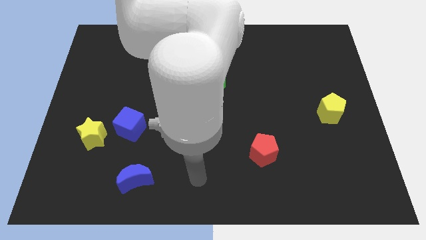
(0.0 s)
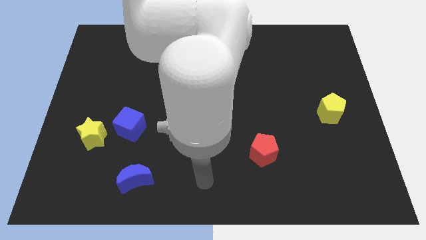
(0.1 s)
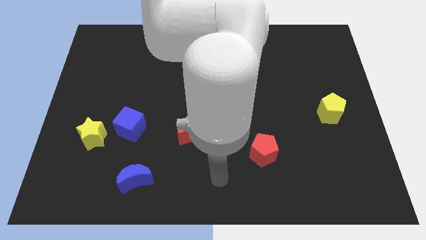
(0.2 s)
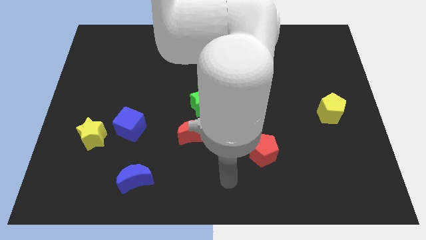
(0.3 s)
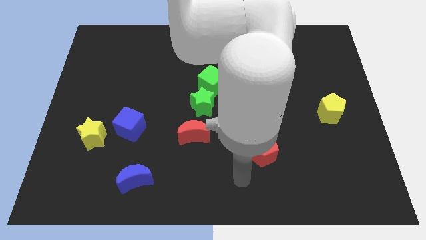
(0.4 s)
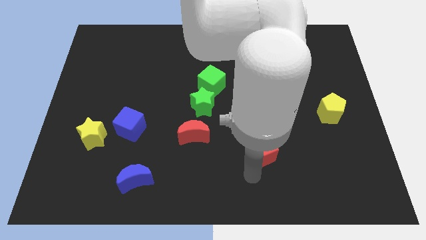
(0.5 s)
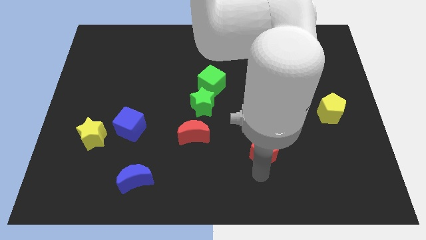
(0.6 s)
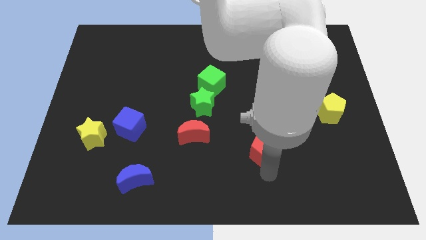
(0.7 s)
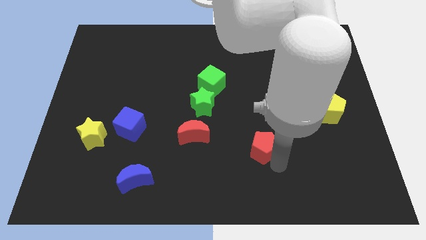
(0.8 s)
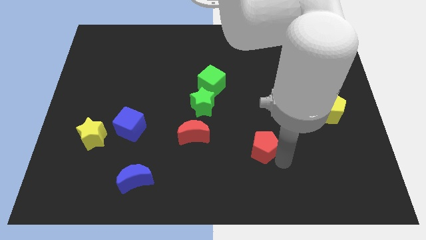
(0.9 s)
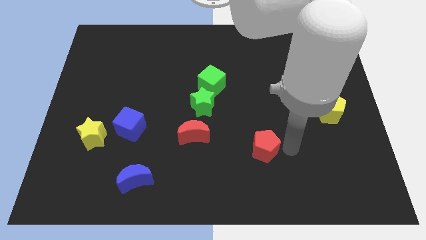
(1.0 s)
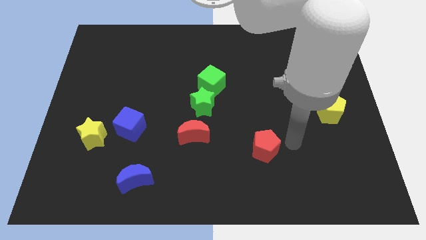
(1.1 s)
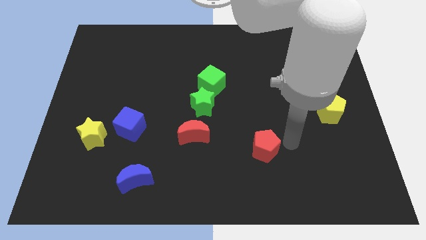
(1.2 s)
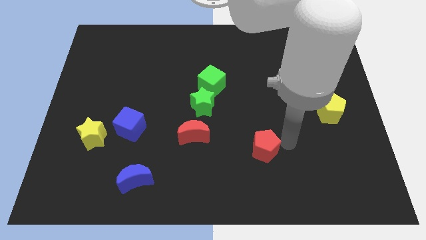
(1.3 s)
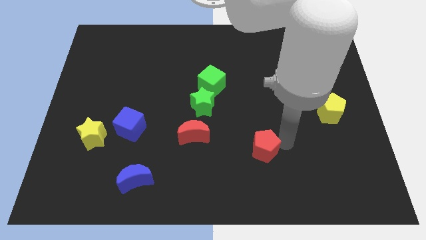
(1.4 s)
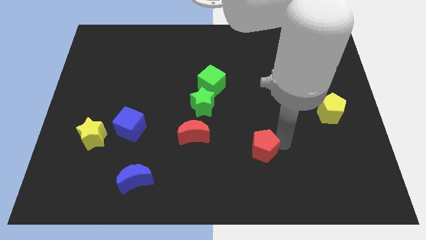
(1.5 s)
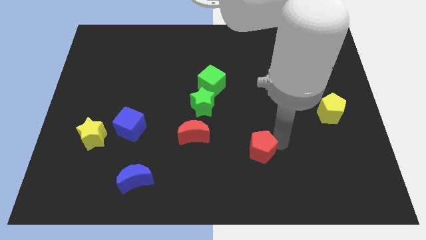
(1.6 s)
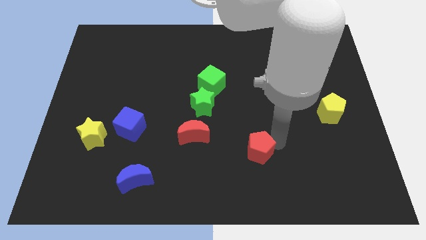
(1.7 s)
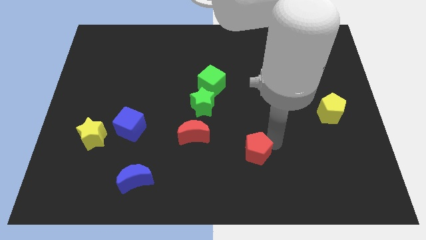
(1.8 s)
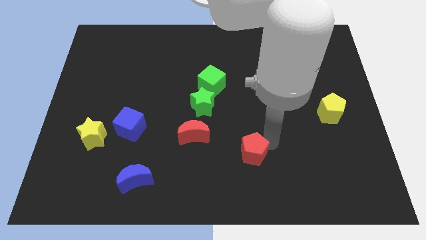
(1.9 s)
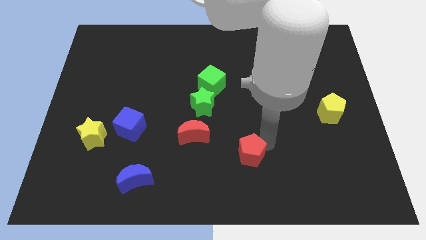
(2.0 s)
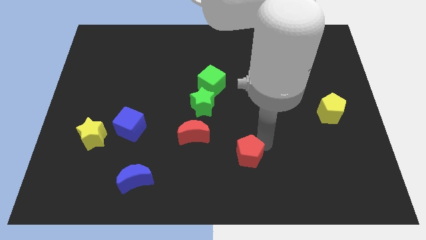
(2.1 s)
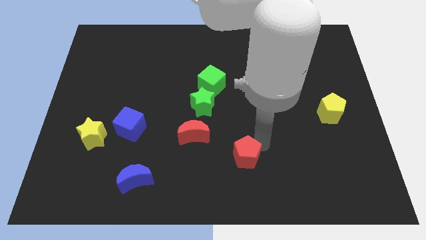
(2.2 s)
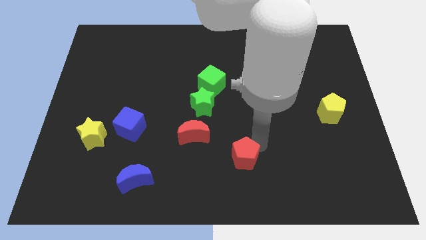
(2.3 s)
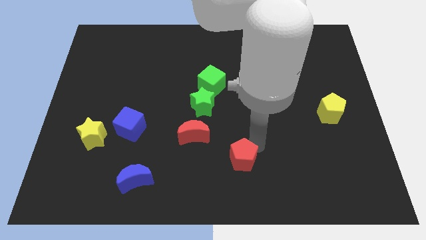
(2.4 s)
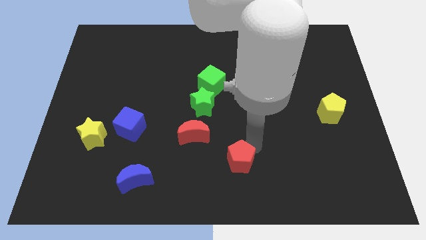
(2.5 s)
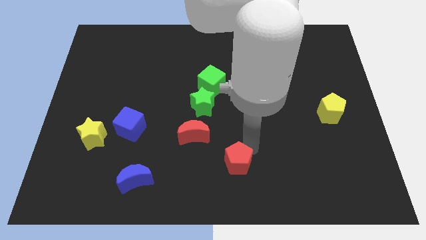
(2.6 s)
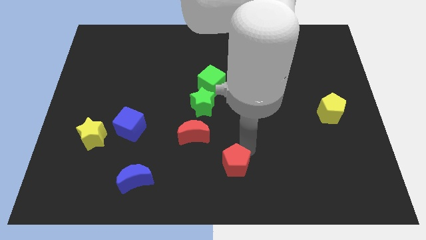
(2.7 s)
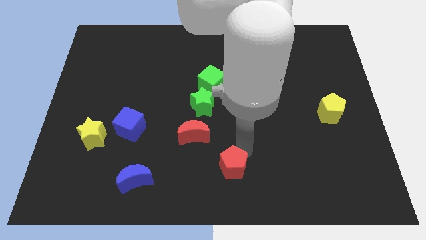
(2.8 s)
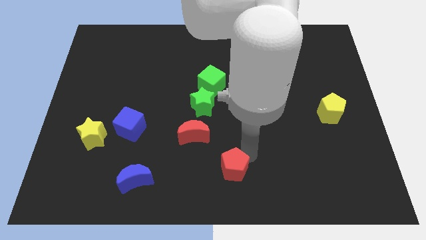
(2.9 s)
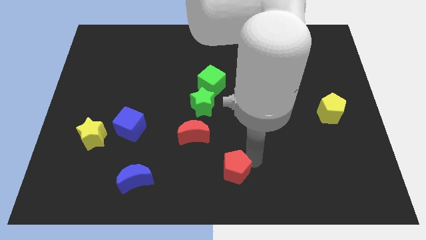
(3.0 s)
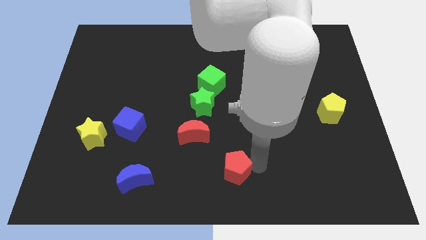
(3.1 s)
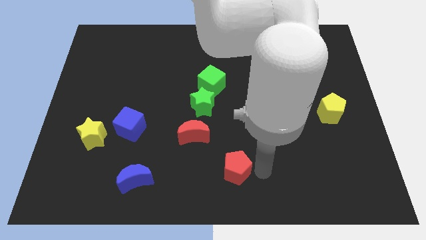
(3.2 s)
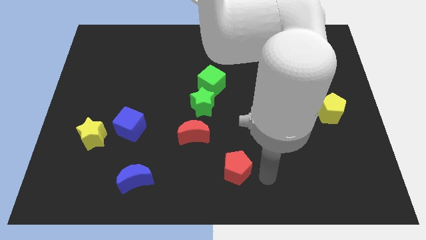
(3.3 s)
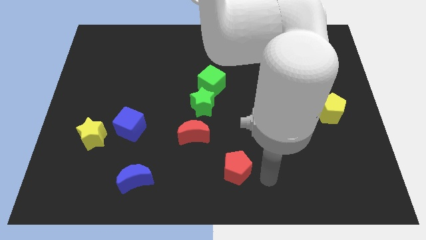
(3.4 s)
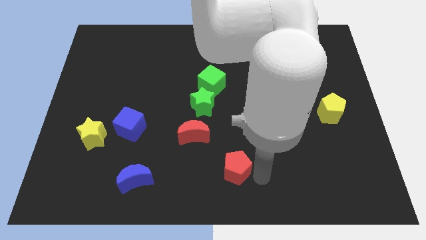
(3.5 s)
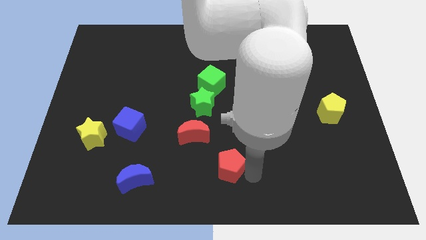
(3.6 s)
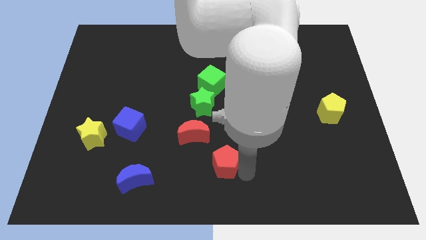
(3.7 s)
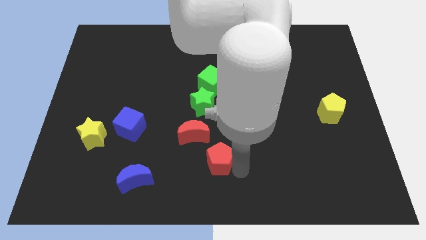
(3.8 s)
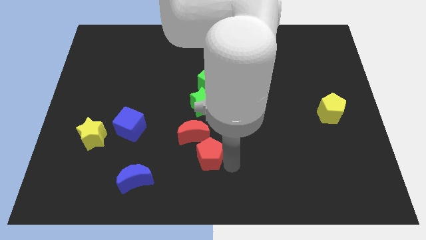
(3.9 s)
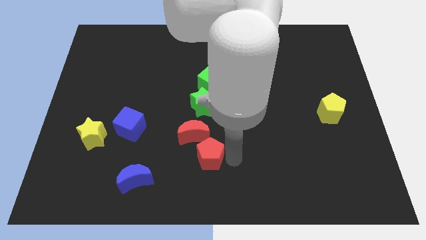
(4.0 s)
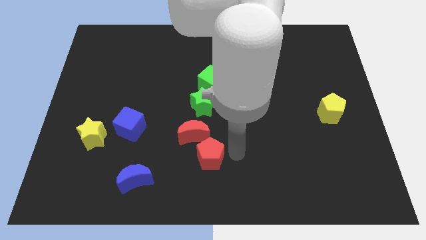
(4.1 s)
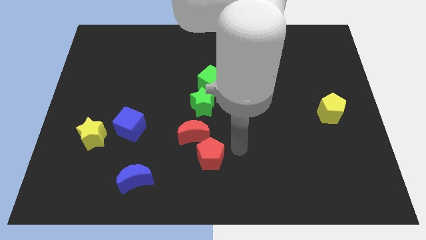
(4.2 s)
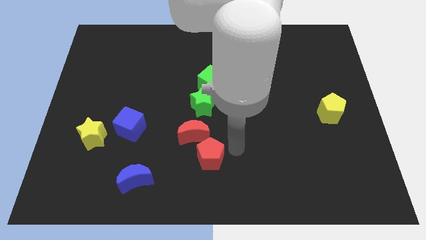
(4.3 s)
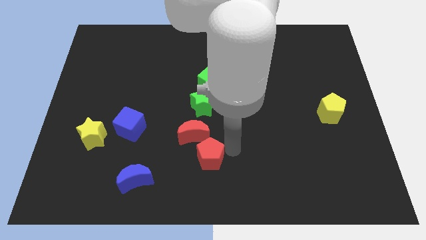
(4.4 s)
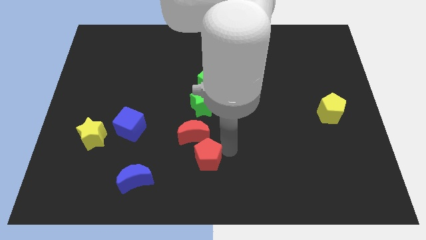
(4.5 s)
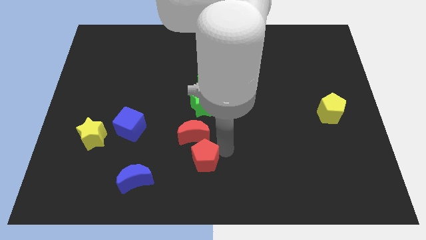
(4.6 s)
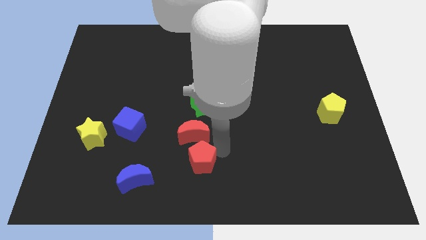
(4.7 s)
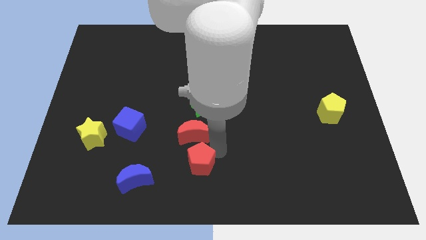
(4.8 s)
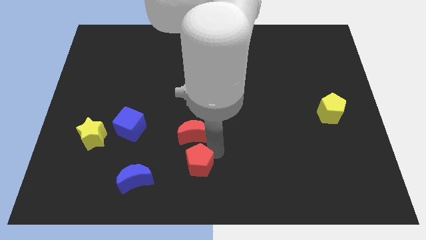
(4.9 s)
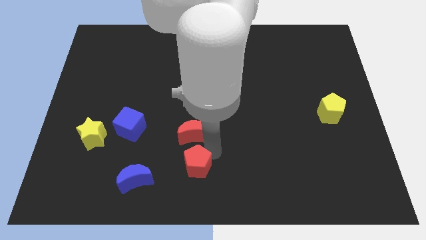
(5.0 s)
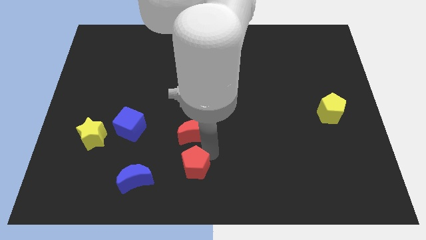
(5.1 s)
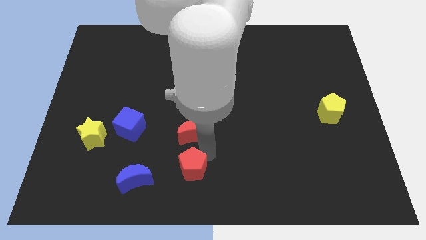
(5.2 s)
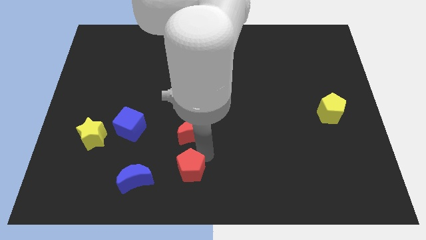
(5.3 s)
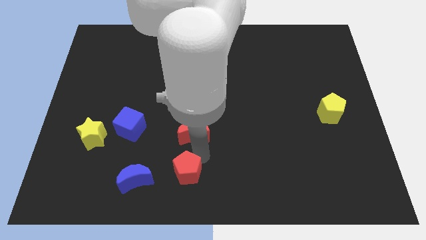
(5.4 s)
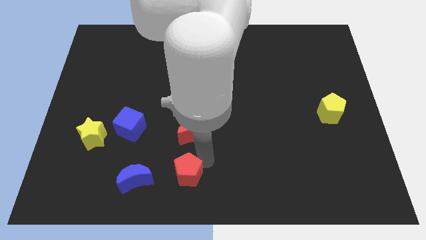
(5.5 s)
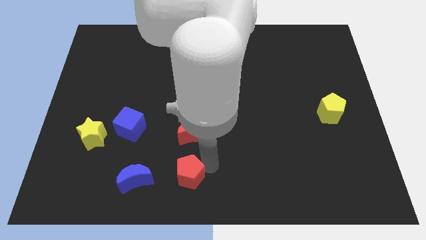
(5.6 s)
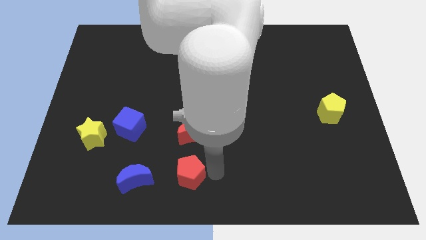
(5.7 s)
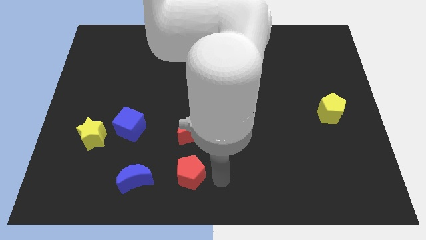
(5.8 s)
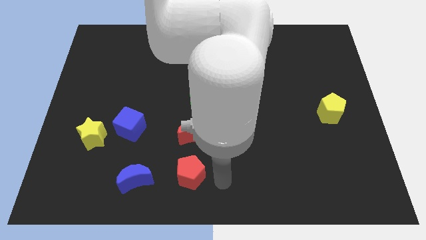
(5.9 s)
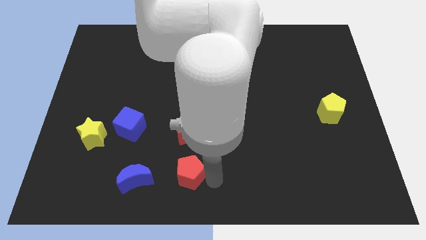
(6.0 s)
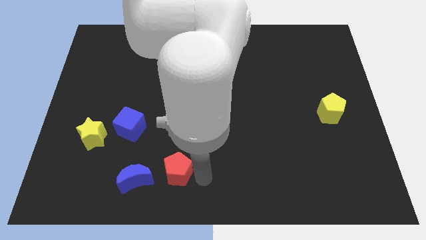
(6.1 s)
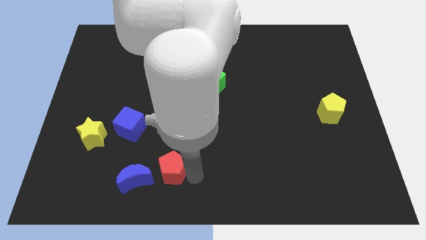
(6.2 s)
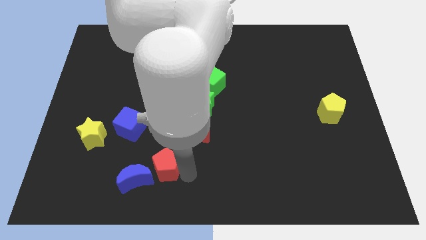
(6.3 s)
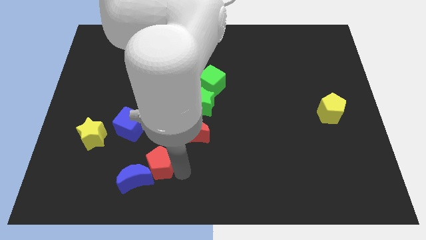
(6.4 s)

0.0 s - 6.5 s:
move the red pentagon towards the blue moon
